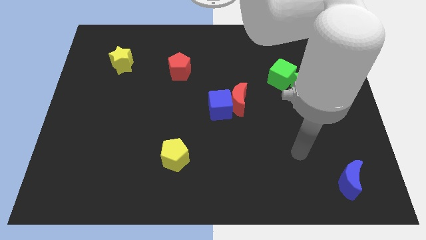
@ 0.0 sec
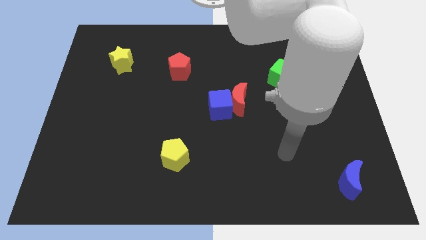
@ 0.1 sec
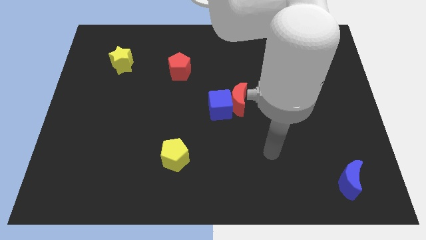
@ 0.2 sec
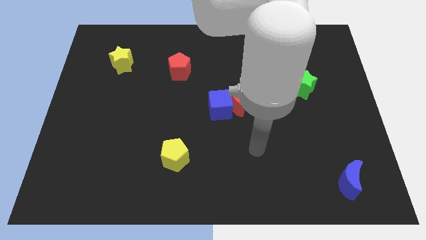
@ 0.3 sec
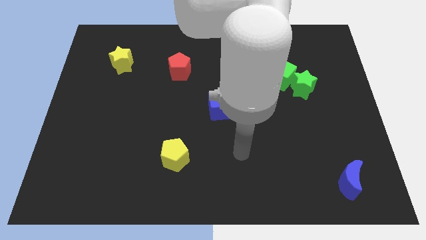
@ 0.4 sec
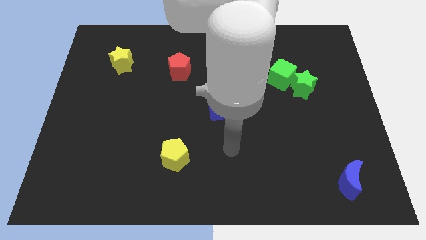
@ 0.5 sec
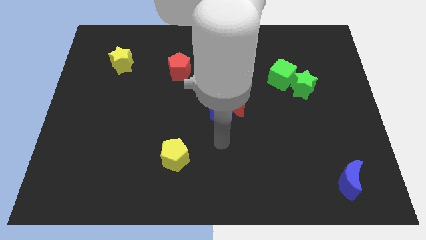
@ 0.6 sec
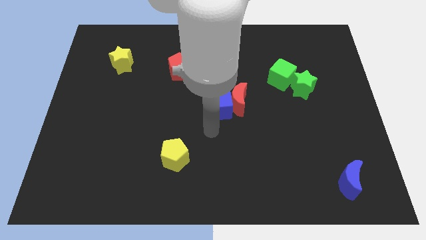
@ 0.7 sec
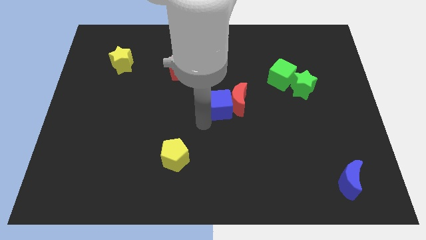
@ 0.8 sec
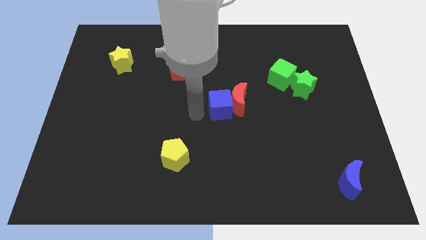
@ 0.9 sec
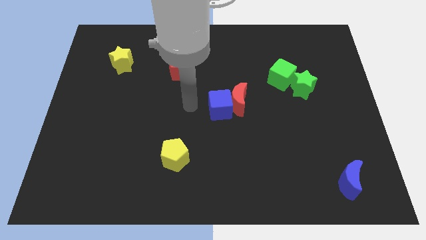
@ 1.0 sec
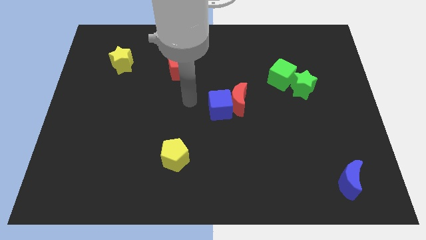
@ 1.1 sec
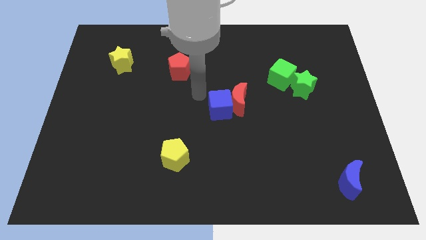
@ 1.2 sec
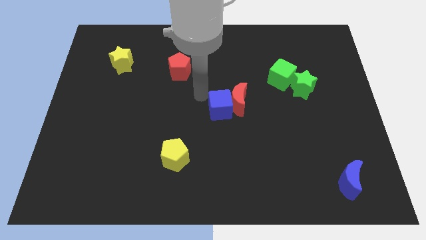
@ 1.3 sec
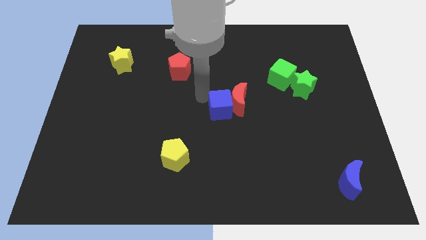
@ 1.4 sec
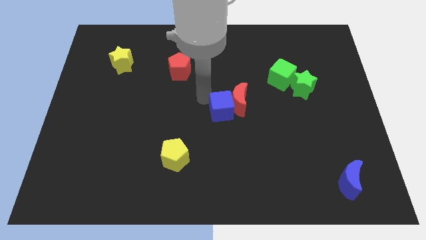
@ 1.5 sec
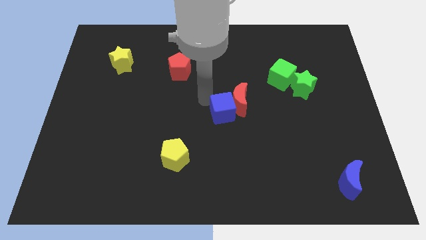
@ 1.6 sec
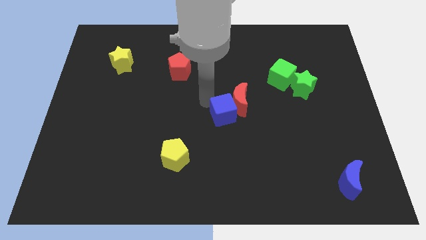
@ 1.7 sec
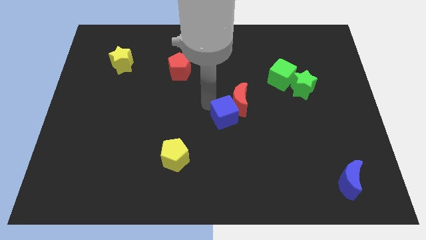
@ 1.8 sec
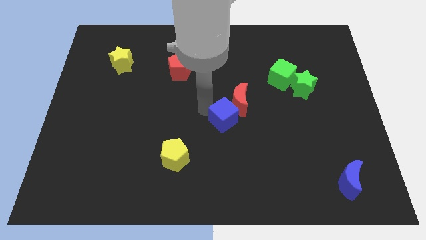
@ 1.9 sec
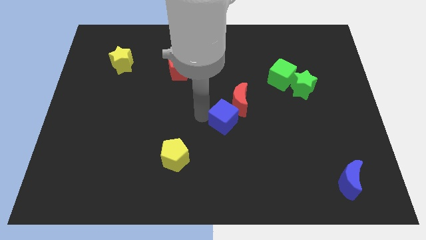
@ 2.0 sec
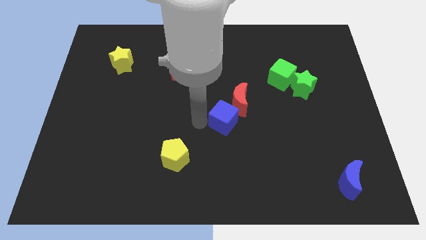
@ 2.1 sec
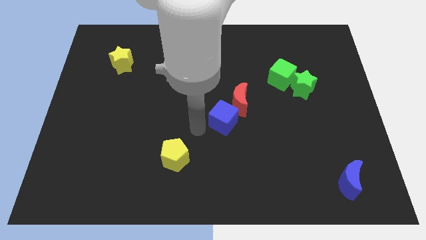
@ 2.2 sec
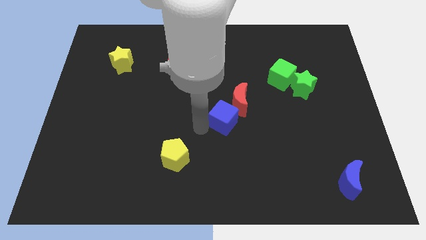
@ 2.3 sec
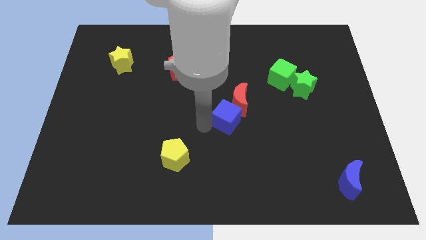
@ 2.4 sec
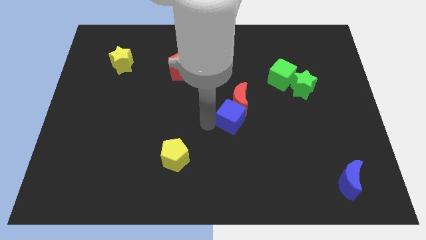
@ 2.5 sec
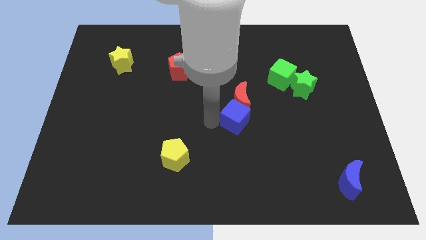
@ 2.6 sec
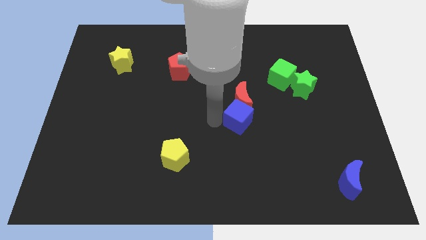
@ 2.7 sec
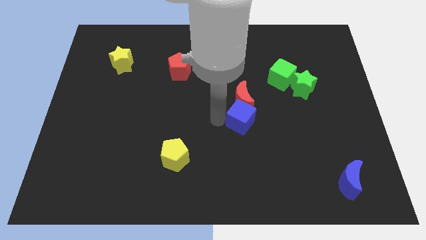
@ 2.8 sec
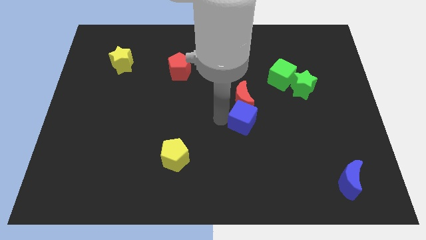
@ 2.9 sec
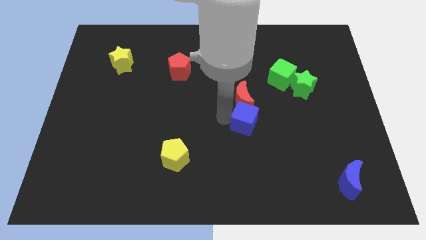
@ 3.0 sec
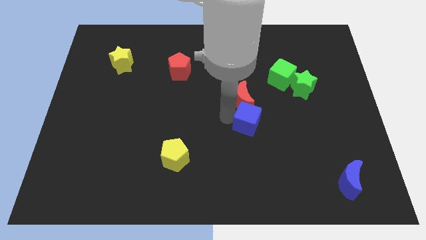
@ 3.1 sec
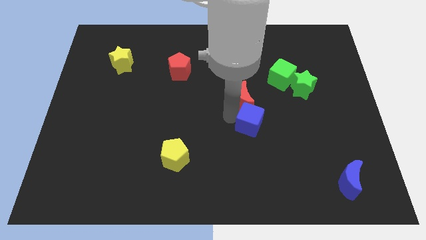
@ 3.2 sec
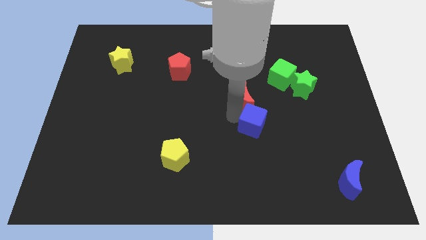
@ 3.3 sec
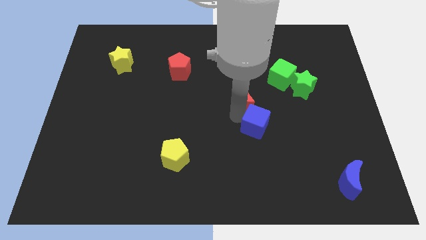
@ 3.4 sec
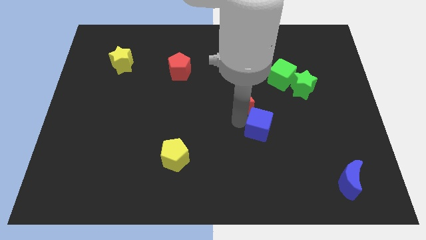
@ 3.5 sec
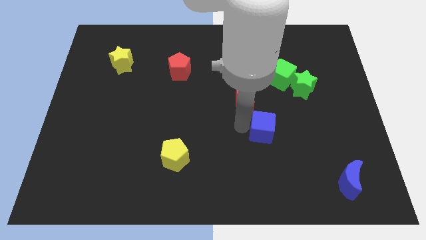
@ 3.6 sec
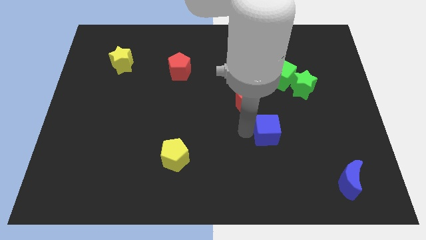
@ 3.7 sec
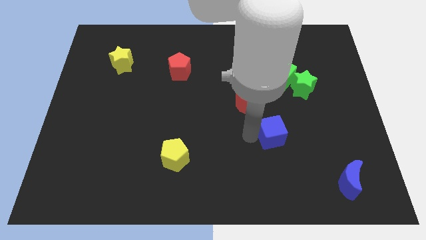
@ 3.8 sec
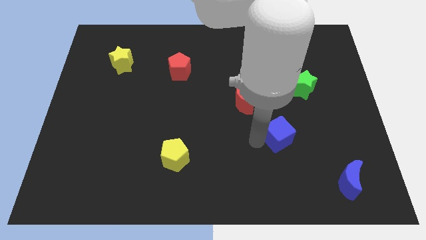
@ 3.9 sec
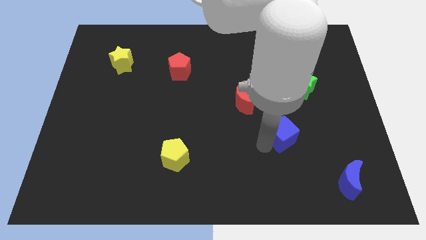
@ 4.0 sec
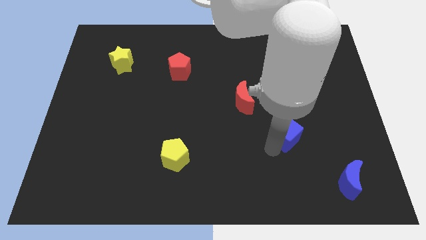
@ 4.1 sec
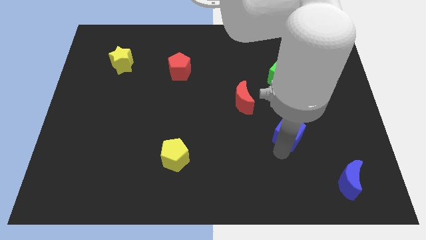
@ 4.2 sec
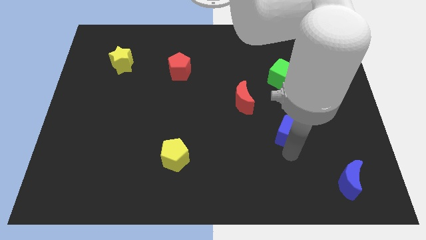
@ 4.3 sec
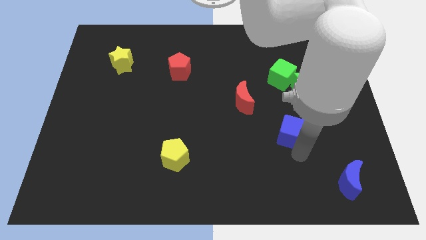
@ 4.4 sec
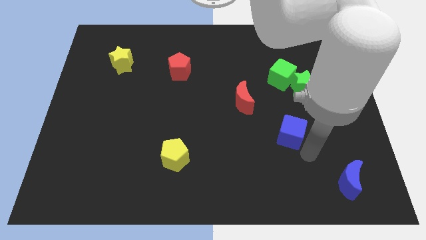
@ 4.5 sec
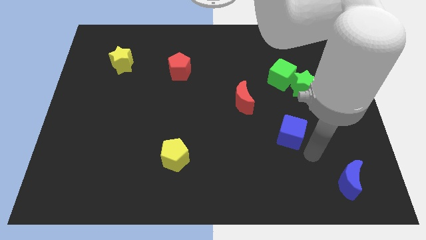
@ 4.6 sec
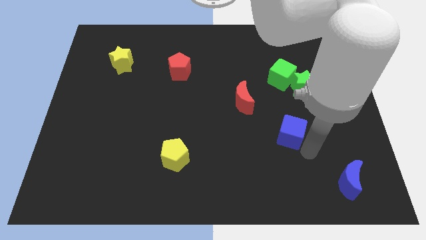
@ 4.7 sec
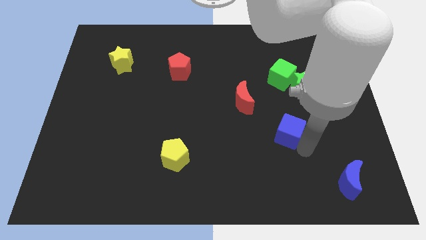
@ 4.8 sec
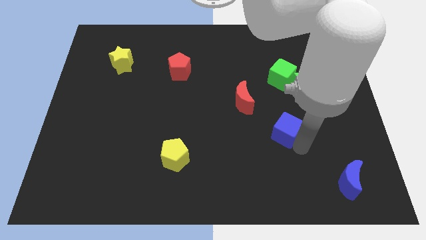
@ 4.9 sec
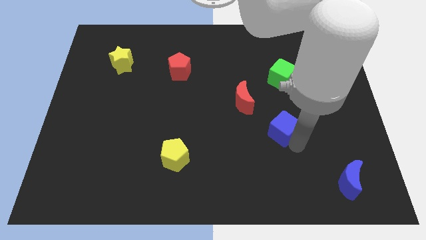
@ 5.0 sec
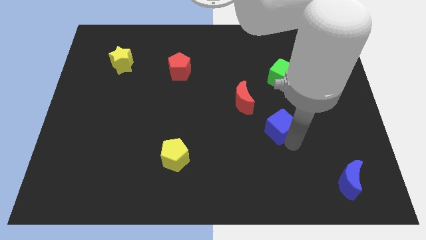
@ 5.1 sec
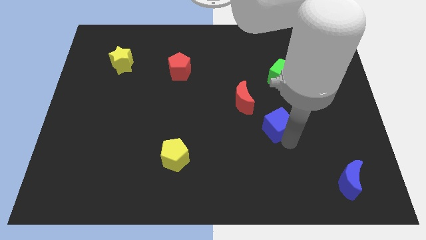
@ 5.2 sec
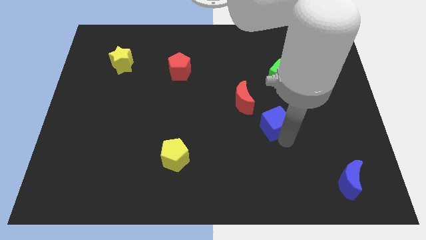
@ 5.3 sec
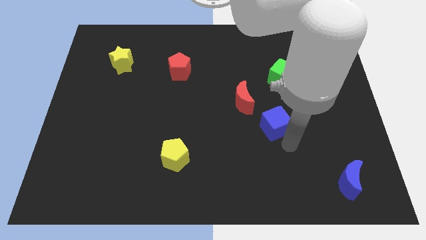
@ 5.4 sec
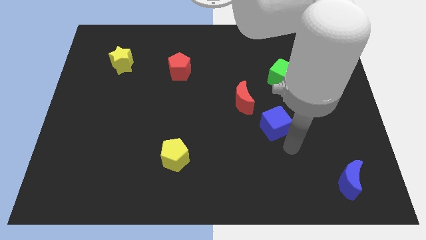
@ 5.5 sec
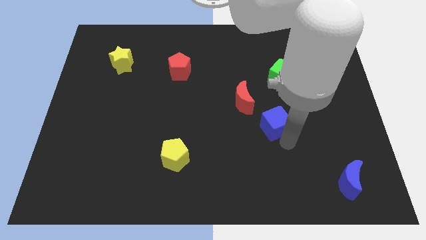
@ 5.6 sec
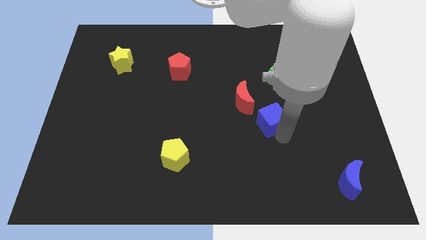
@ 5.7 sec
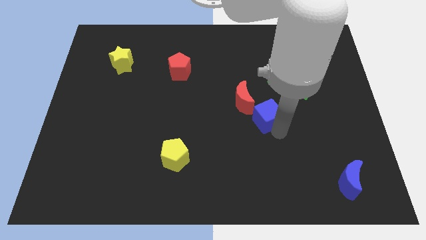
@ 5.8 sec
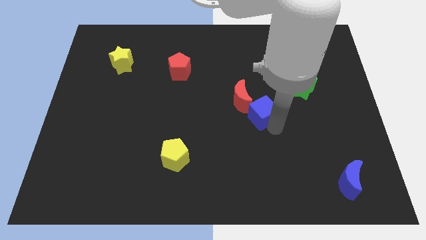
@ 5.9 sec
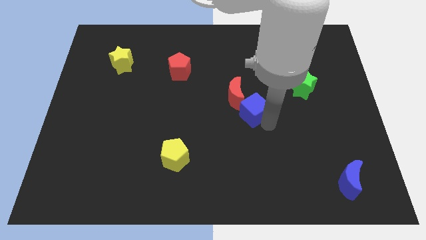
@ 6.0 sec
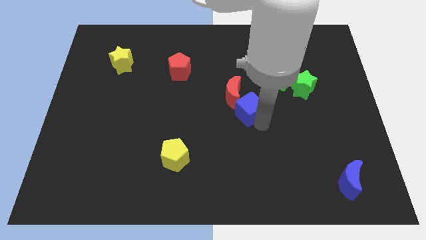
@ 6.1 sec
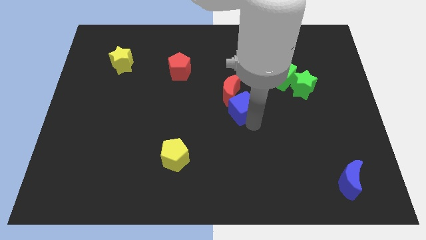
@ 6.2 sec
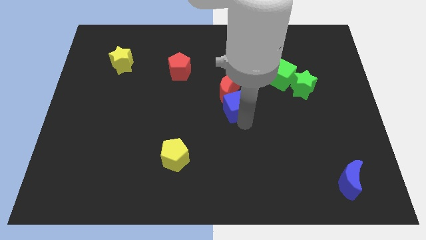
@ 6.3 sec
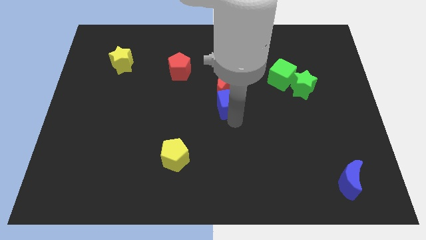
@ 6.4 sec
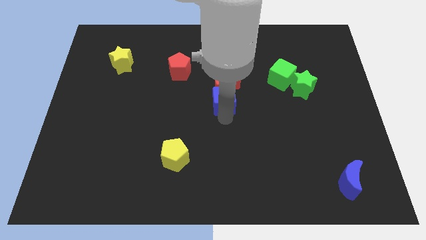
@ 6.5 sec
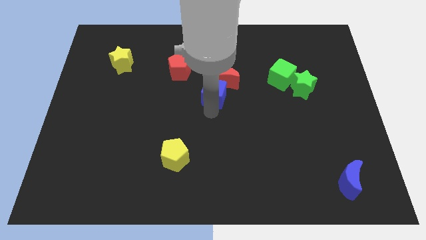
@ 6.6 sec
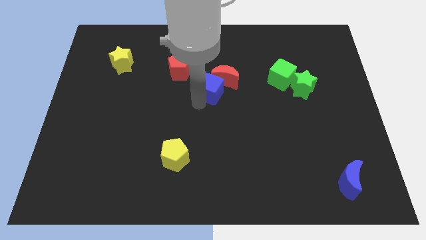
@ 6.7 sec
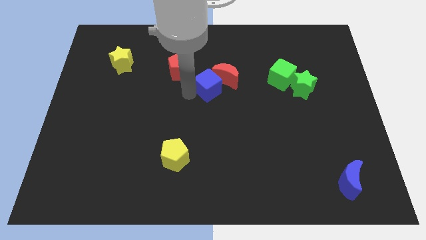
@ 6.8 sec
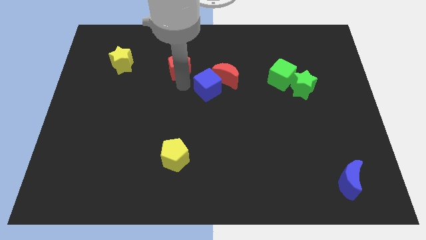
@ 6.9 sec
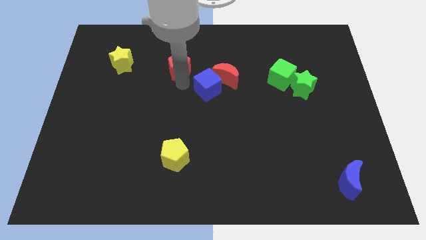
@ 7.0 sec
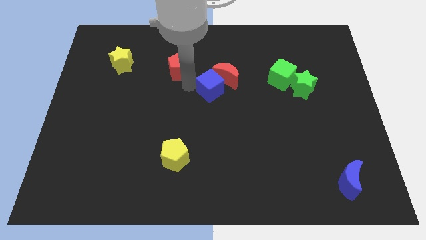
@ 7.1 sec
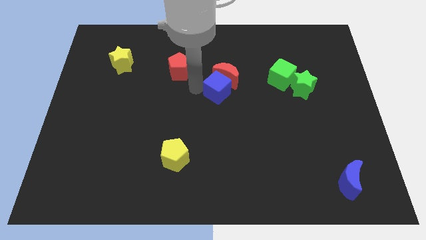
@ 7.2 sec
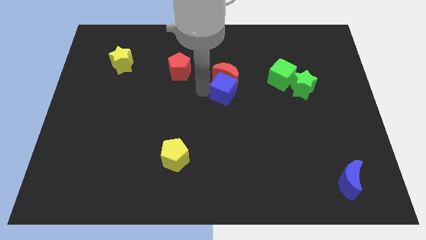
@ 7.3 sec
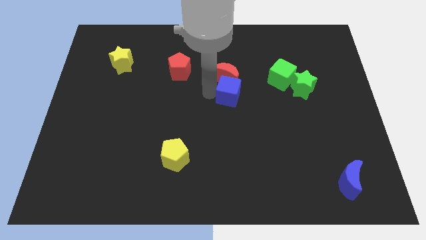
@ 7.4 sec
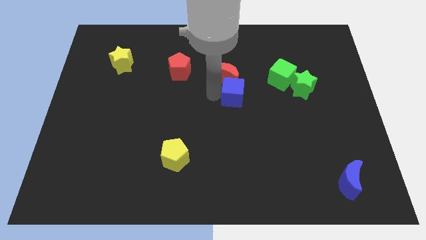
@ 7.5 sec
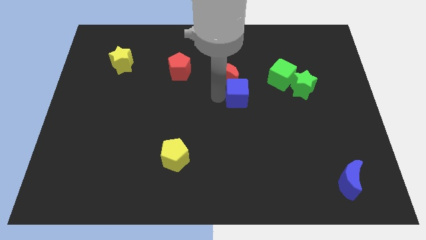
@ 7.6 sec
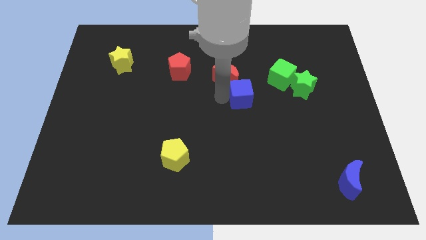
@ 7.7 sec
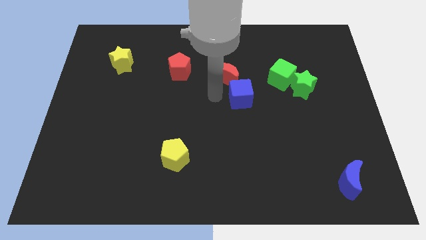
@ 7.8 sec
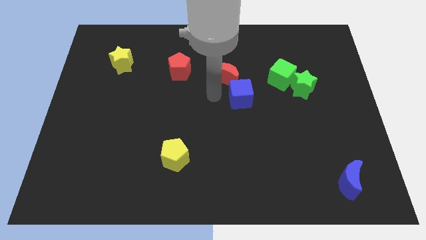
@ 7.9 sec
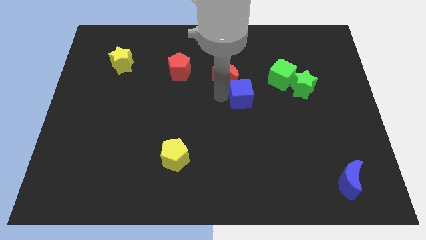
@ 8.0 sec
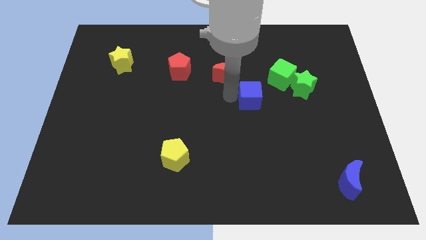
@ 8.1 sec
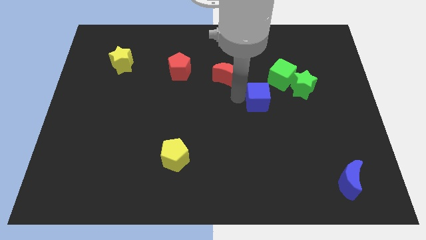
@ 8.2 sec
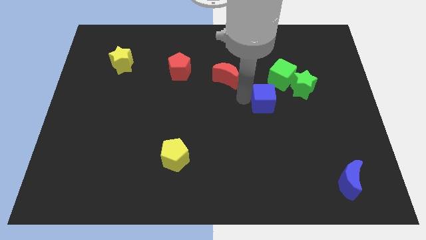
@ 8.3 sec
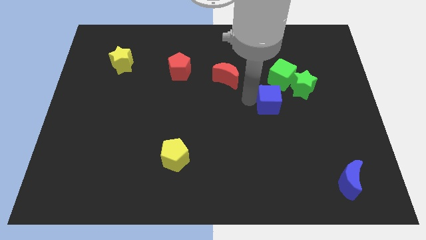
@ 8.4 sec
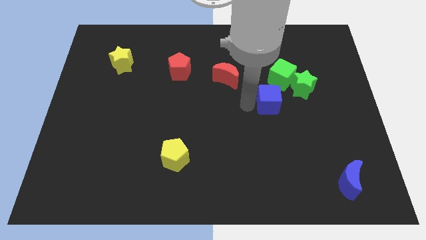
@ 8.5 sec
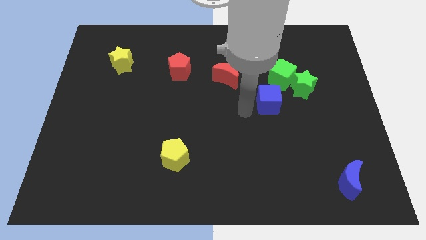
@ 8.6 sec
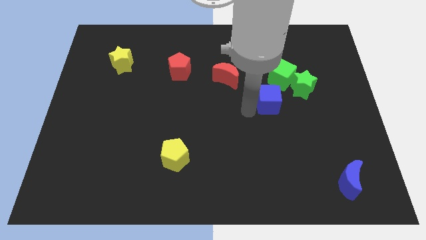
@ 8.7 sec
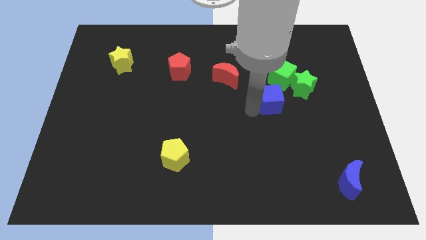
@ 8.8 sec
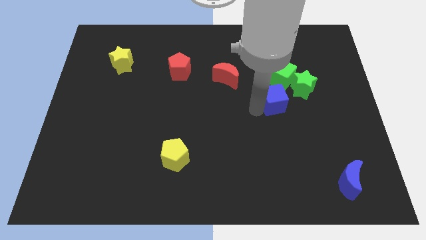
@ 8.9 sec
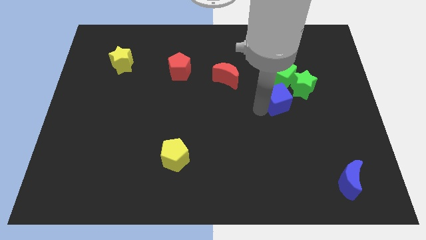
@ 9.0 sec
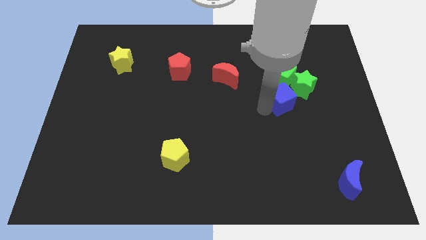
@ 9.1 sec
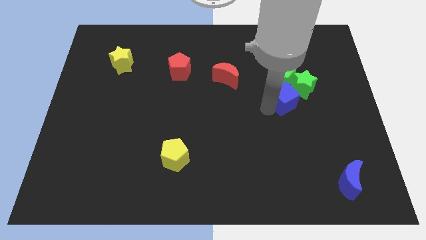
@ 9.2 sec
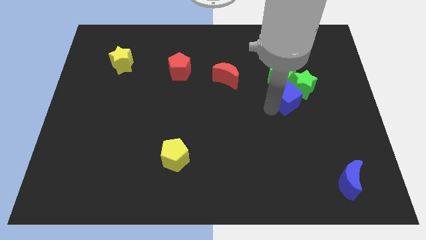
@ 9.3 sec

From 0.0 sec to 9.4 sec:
push the blue cube to the green star
